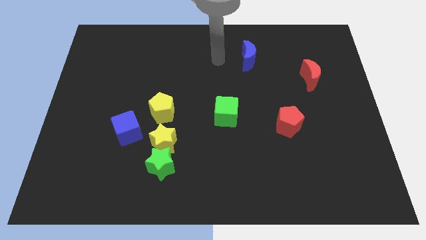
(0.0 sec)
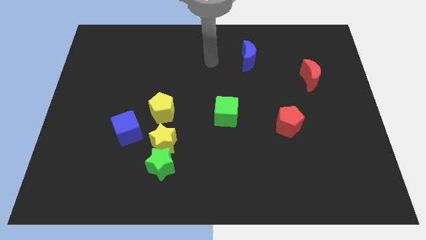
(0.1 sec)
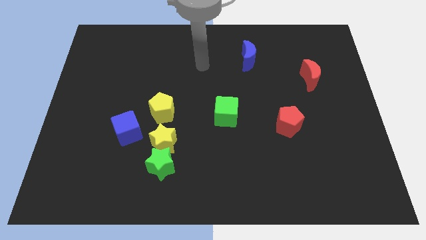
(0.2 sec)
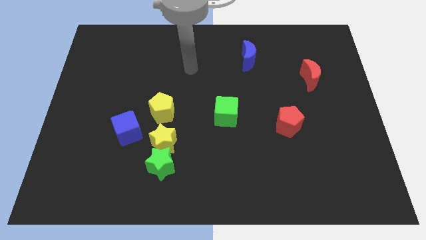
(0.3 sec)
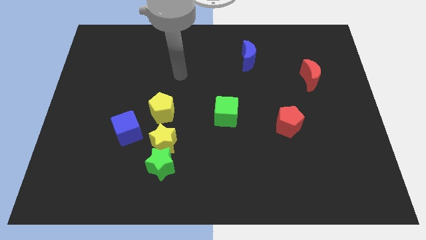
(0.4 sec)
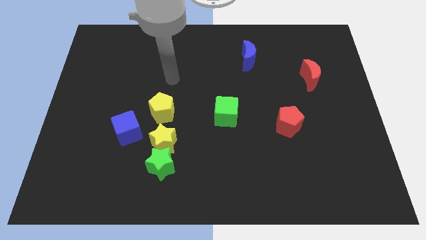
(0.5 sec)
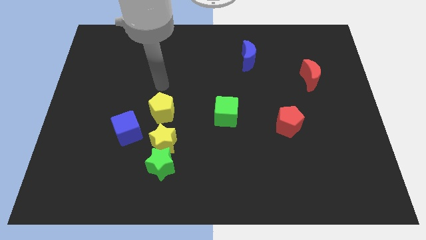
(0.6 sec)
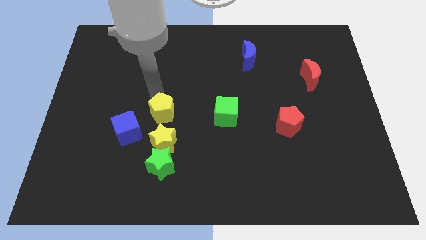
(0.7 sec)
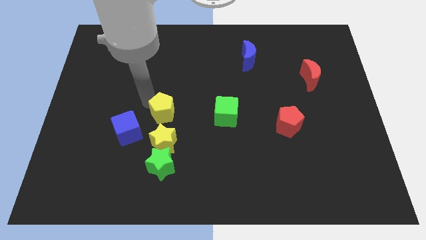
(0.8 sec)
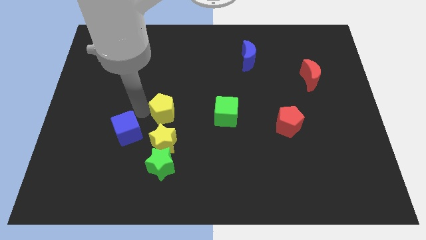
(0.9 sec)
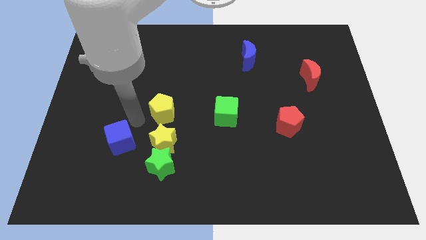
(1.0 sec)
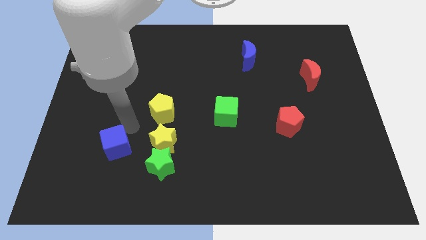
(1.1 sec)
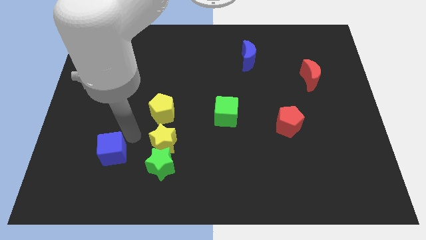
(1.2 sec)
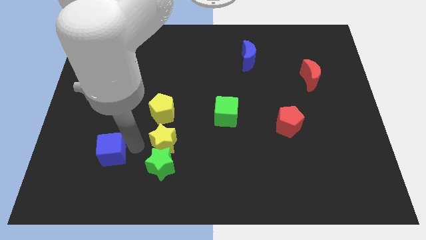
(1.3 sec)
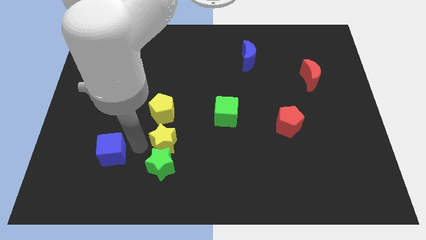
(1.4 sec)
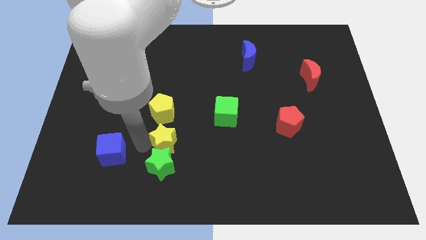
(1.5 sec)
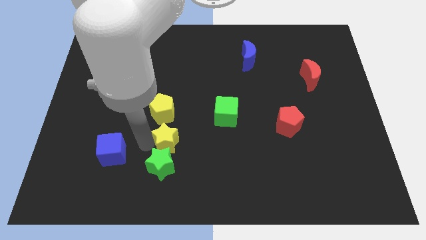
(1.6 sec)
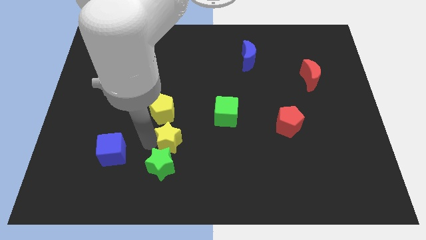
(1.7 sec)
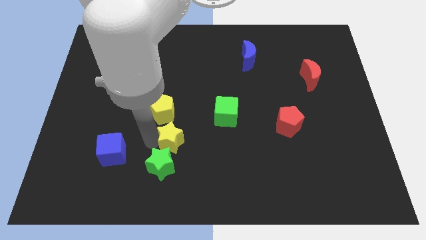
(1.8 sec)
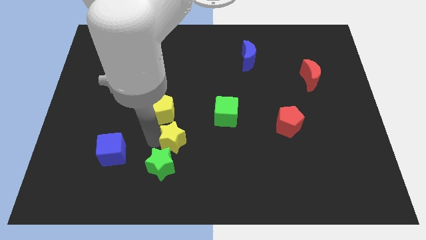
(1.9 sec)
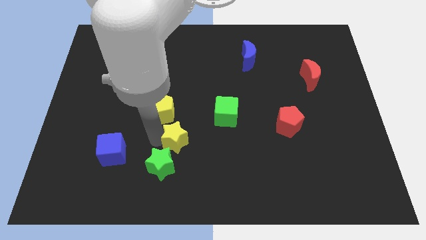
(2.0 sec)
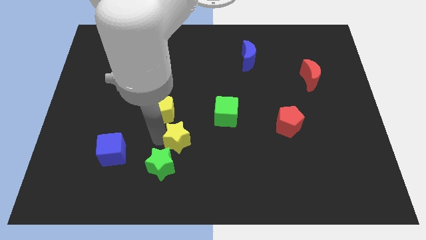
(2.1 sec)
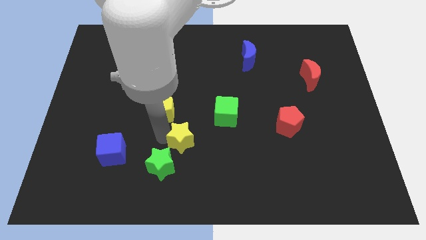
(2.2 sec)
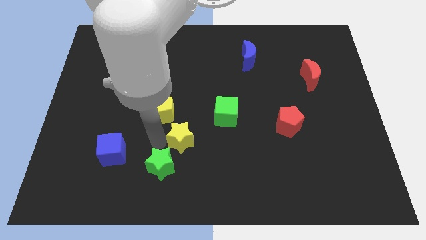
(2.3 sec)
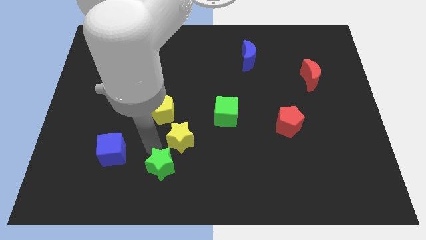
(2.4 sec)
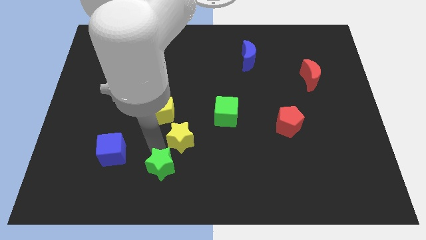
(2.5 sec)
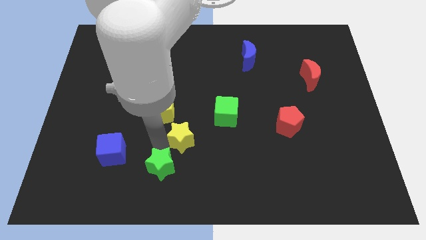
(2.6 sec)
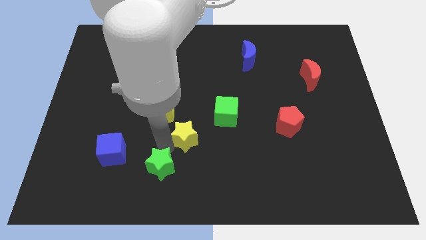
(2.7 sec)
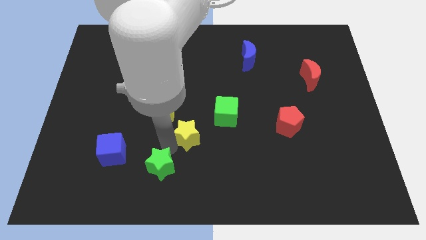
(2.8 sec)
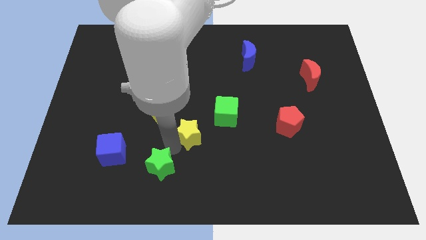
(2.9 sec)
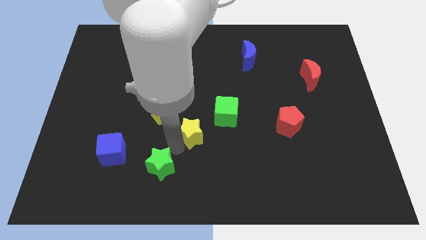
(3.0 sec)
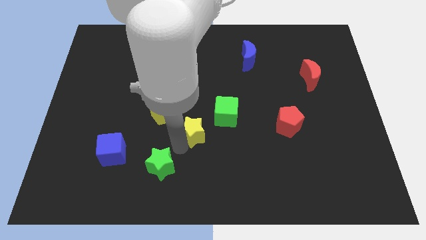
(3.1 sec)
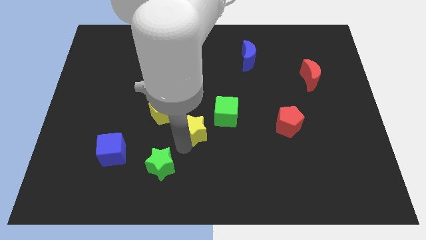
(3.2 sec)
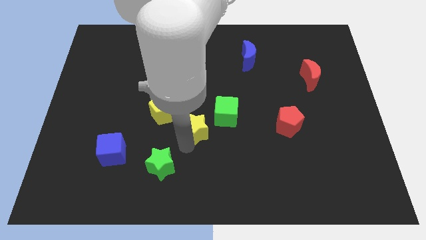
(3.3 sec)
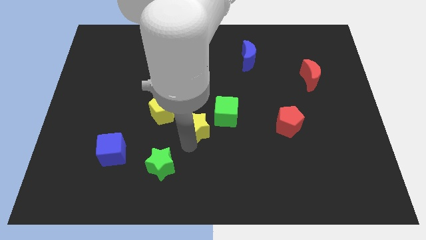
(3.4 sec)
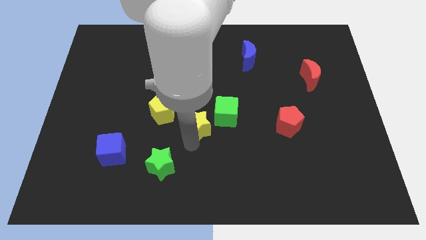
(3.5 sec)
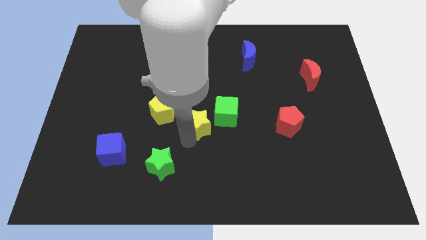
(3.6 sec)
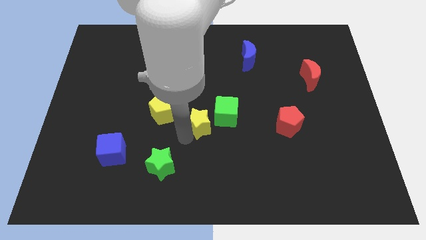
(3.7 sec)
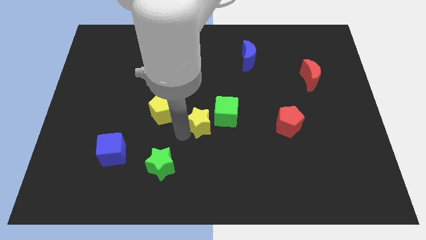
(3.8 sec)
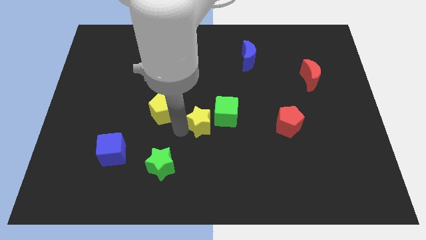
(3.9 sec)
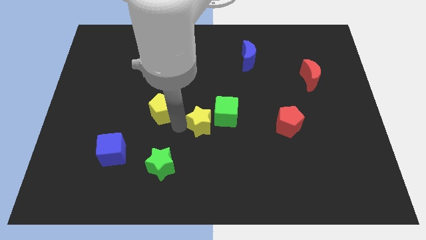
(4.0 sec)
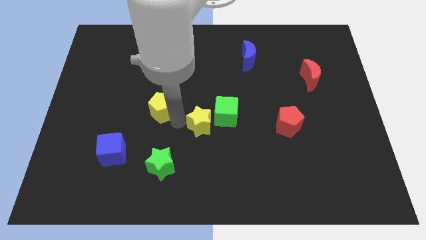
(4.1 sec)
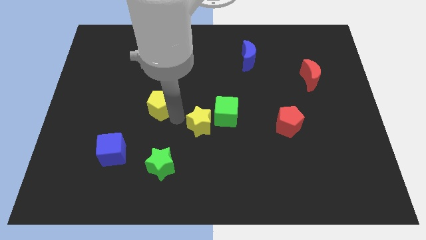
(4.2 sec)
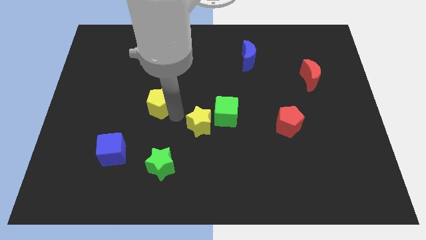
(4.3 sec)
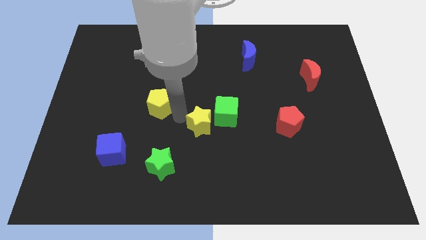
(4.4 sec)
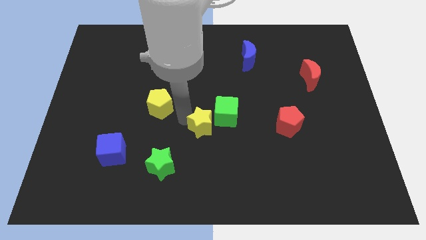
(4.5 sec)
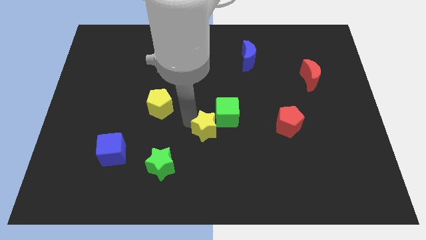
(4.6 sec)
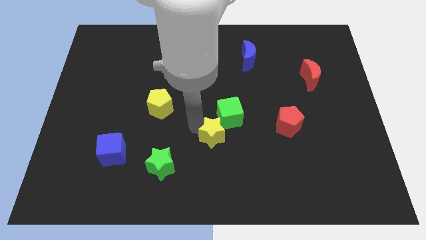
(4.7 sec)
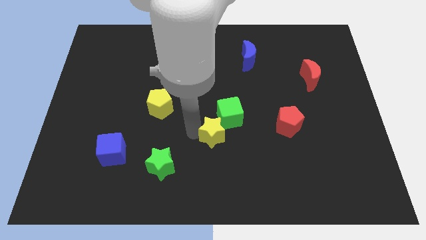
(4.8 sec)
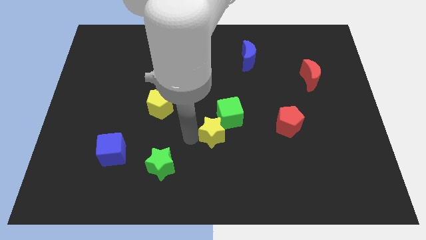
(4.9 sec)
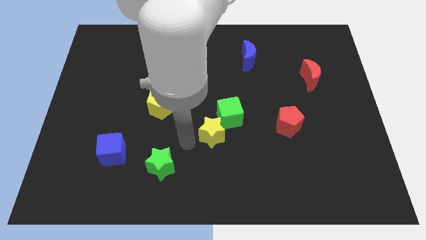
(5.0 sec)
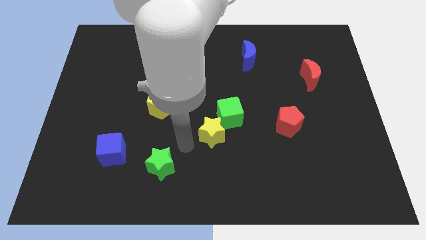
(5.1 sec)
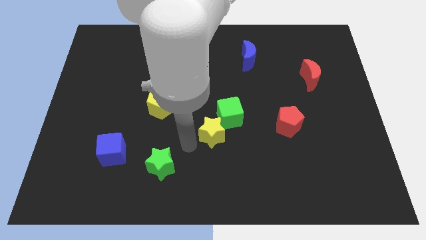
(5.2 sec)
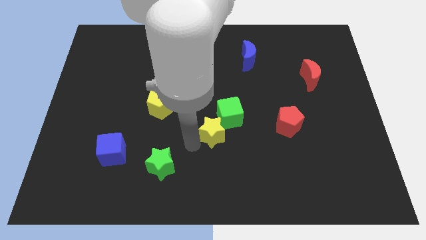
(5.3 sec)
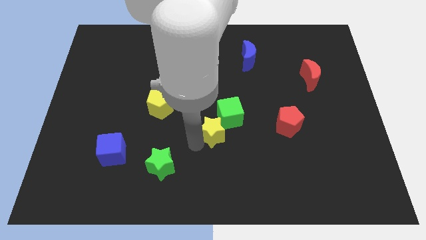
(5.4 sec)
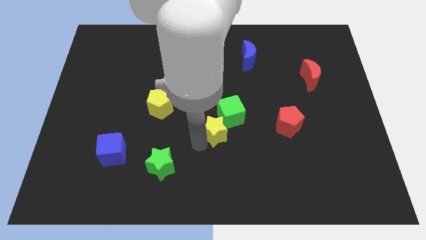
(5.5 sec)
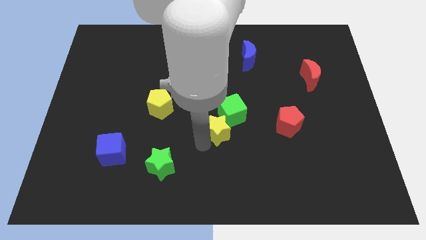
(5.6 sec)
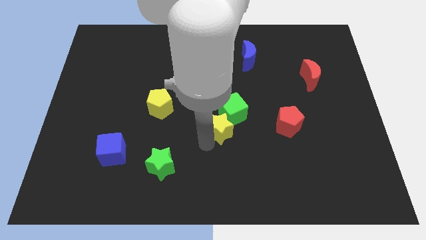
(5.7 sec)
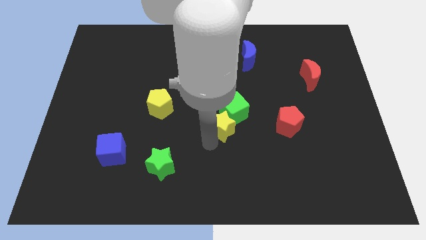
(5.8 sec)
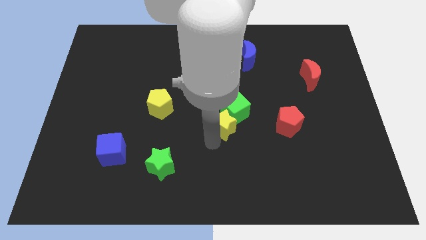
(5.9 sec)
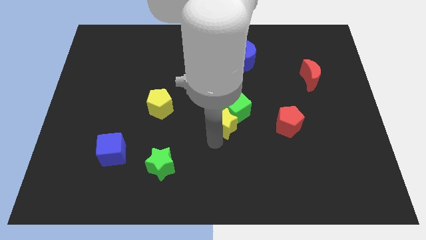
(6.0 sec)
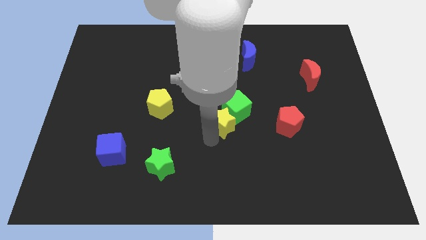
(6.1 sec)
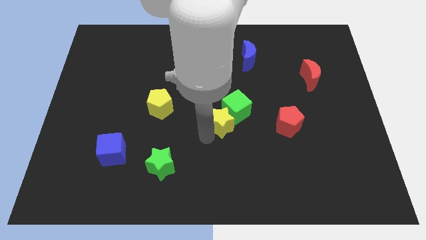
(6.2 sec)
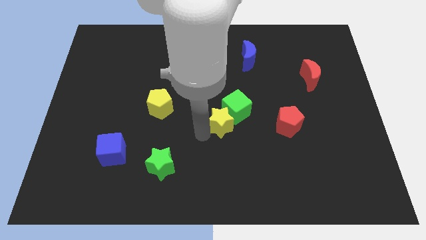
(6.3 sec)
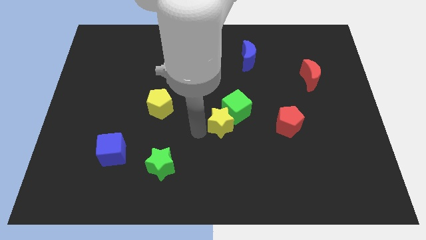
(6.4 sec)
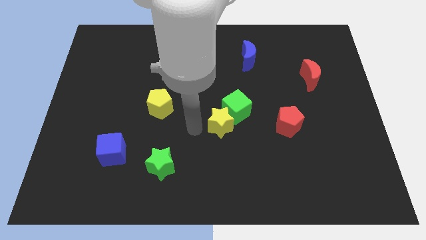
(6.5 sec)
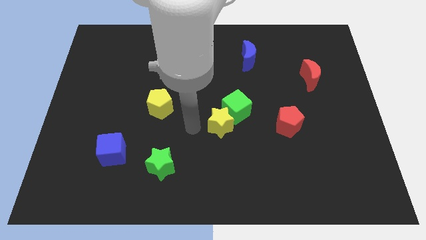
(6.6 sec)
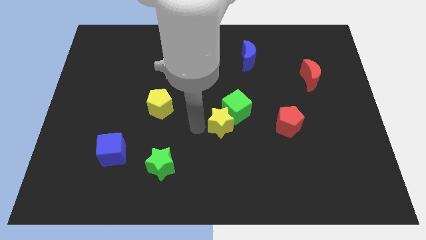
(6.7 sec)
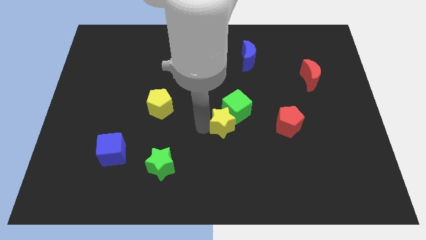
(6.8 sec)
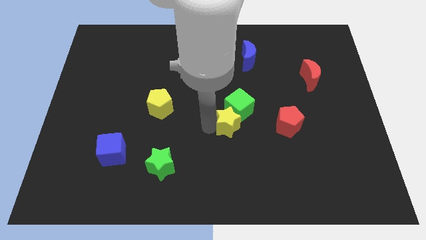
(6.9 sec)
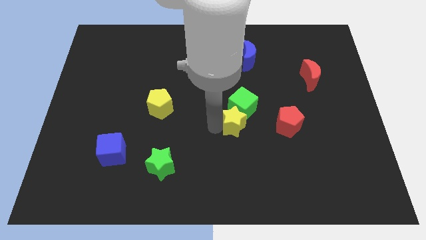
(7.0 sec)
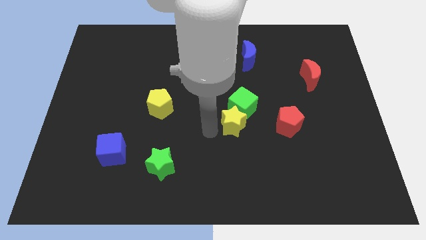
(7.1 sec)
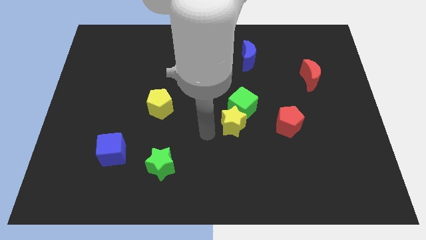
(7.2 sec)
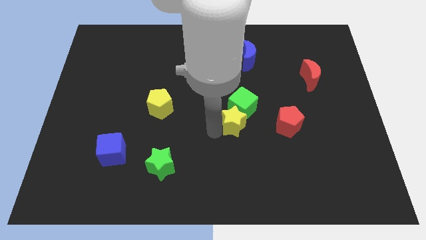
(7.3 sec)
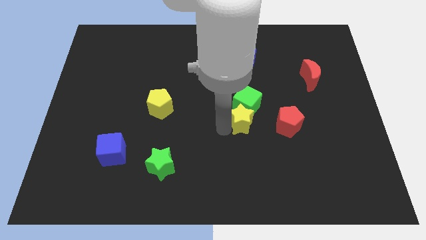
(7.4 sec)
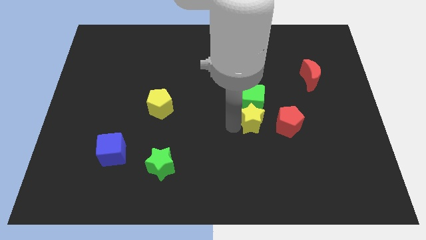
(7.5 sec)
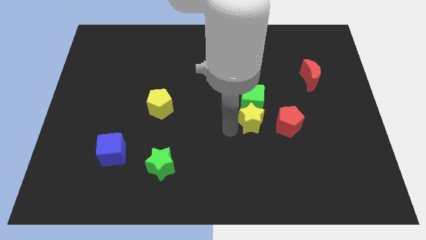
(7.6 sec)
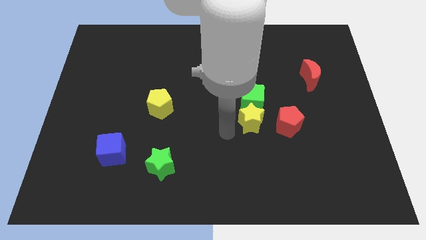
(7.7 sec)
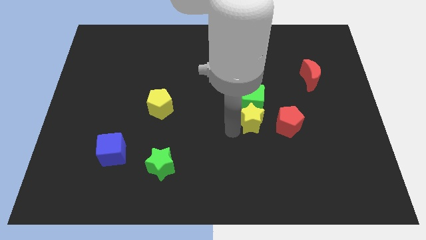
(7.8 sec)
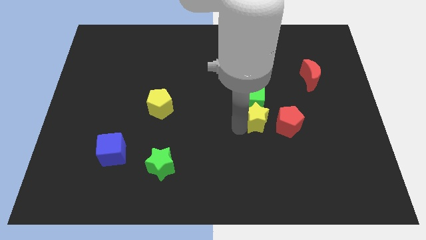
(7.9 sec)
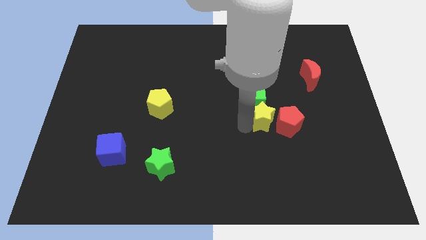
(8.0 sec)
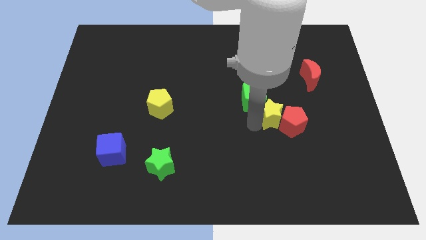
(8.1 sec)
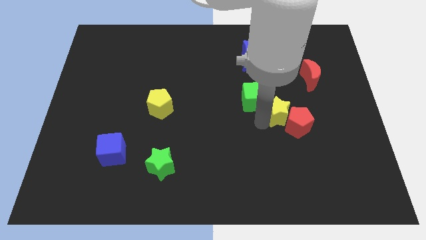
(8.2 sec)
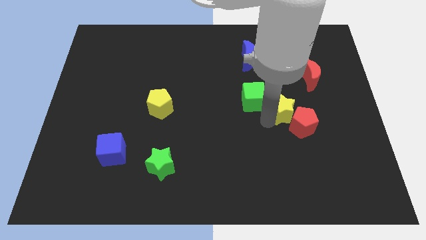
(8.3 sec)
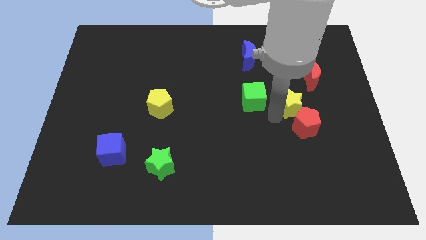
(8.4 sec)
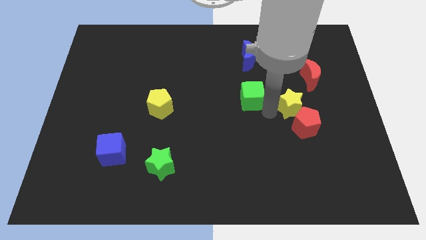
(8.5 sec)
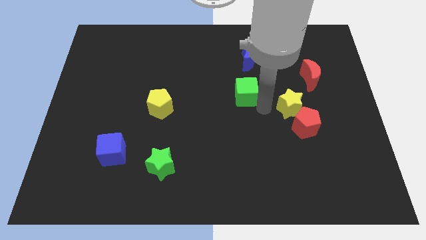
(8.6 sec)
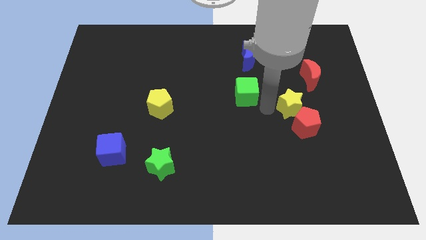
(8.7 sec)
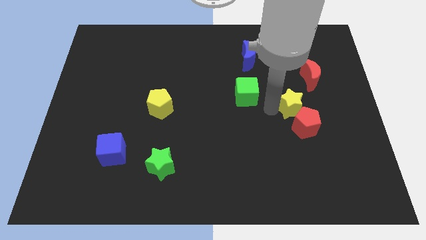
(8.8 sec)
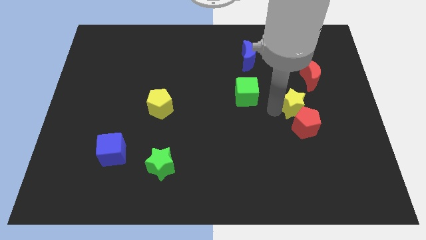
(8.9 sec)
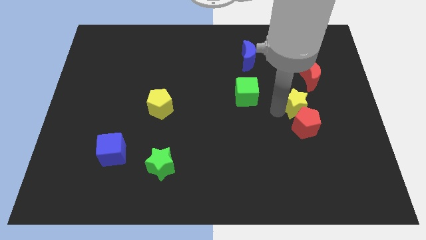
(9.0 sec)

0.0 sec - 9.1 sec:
move the yellow star to the top right side of the red pentagon
